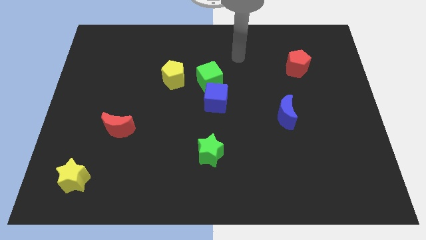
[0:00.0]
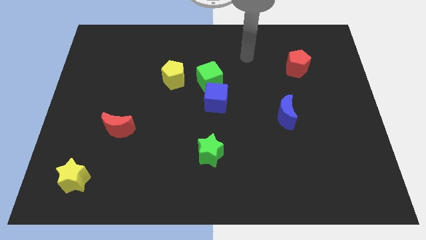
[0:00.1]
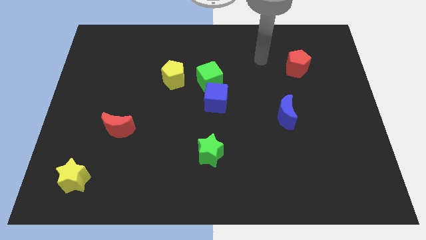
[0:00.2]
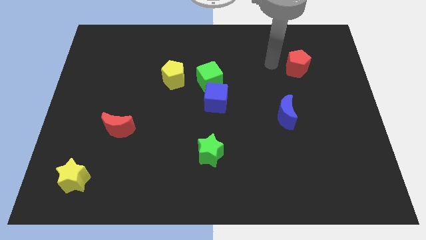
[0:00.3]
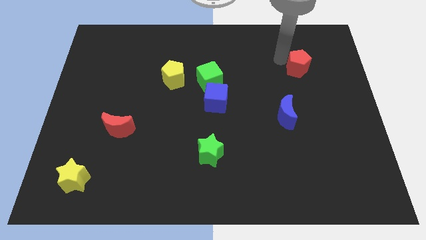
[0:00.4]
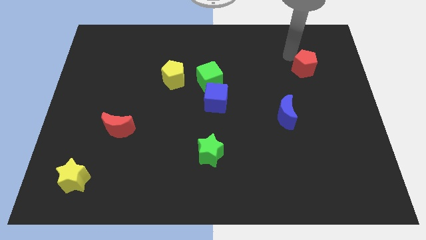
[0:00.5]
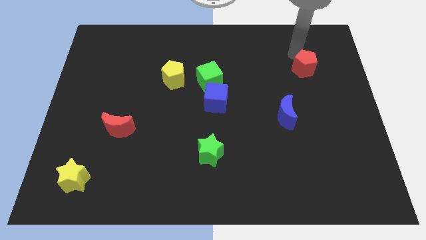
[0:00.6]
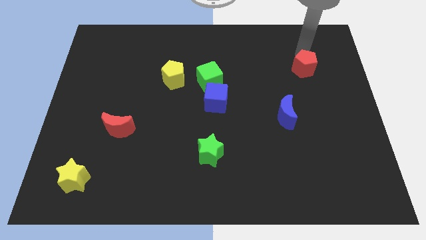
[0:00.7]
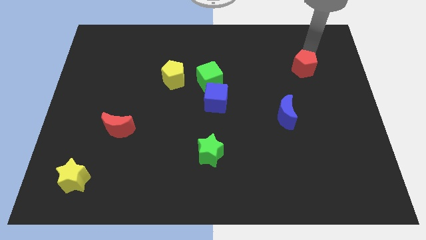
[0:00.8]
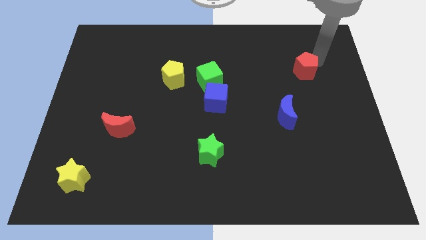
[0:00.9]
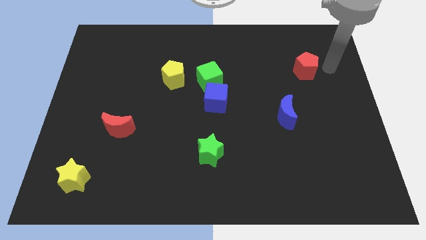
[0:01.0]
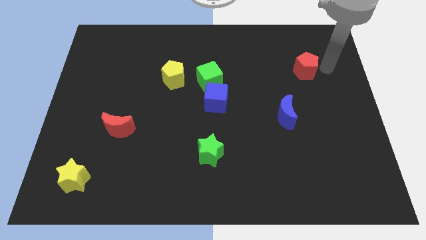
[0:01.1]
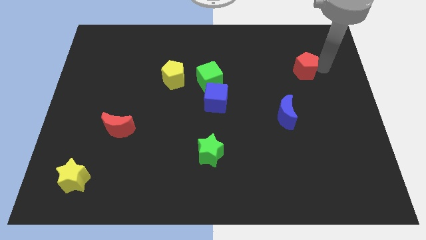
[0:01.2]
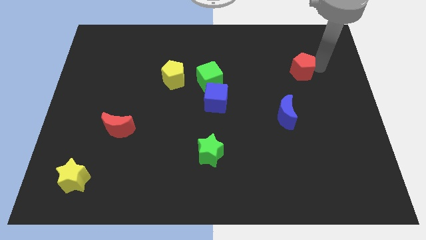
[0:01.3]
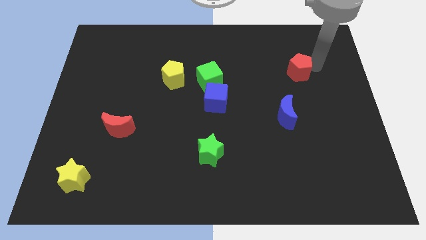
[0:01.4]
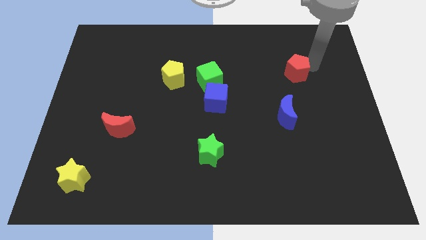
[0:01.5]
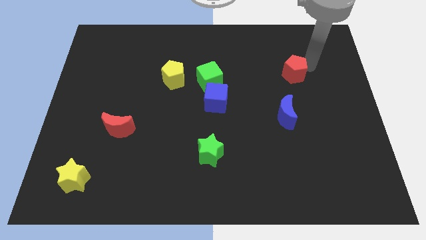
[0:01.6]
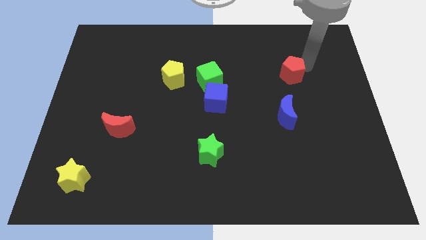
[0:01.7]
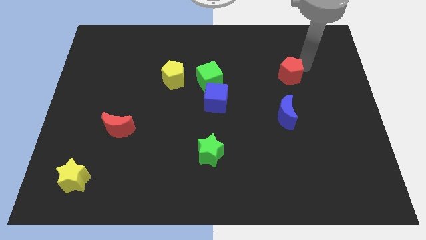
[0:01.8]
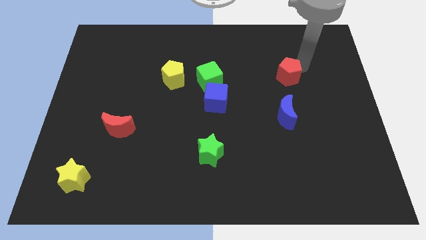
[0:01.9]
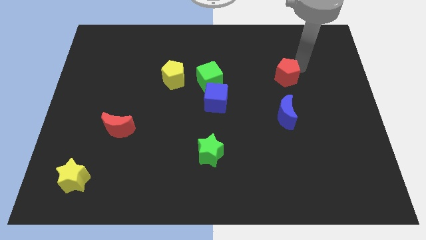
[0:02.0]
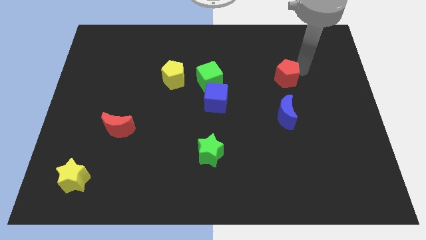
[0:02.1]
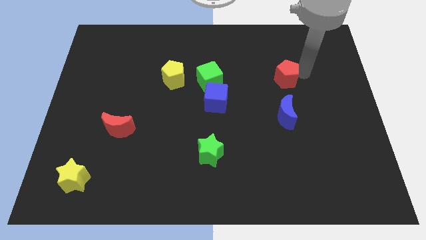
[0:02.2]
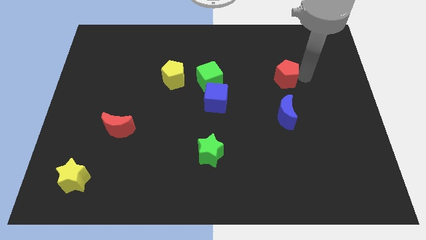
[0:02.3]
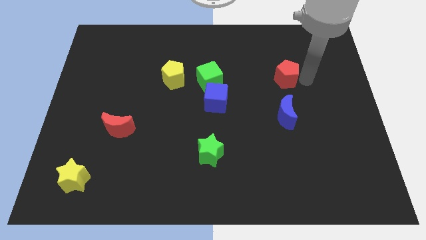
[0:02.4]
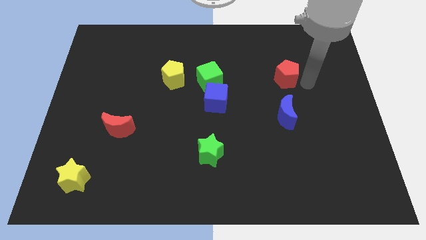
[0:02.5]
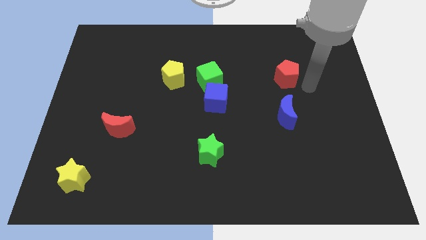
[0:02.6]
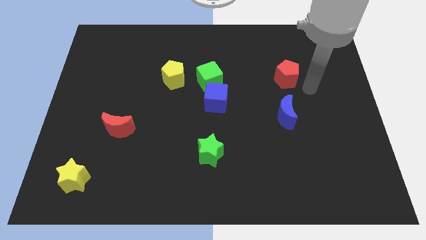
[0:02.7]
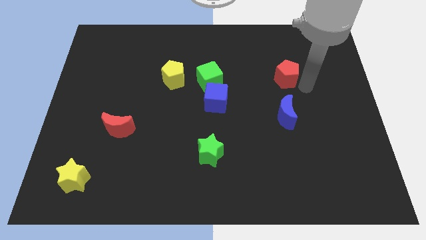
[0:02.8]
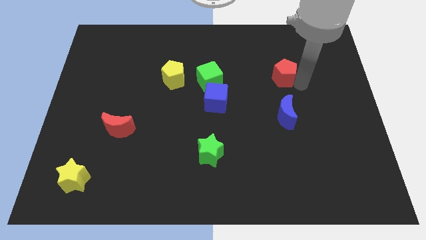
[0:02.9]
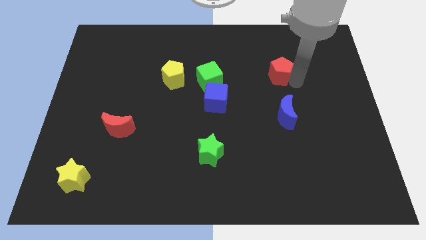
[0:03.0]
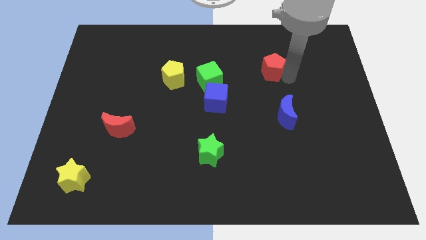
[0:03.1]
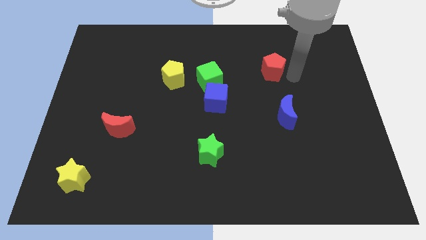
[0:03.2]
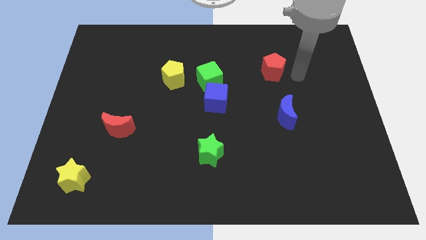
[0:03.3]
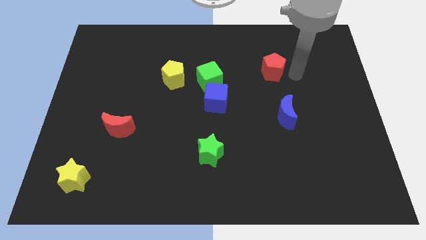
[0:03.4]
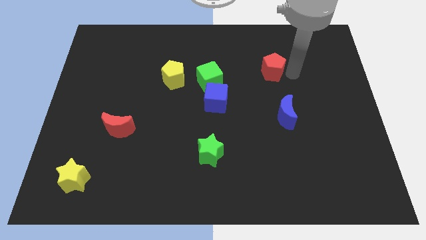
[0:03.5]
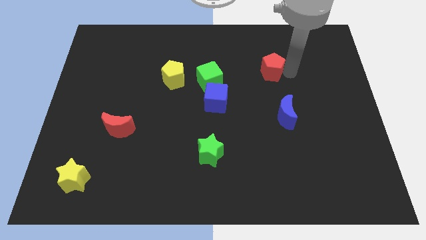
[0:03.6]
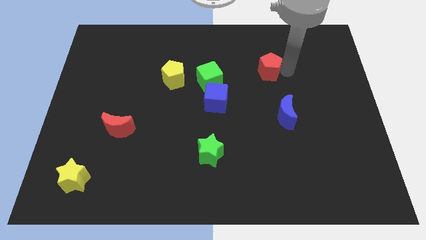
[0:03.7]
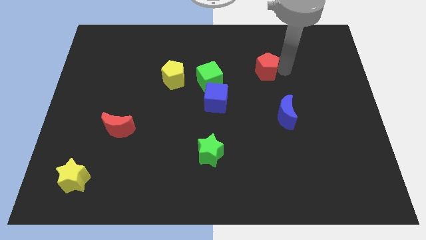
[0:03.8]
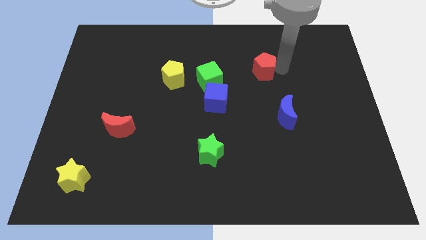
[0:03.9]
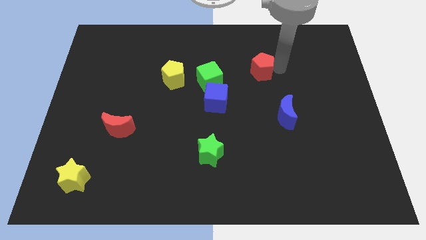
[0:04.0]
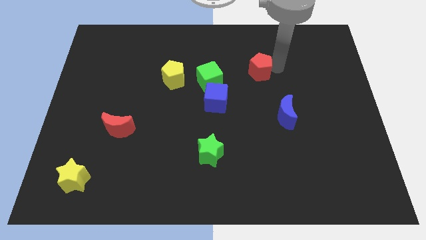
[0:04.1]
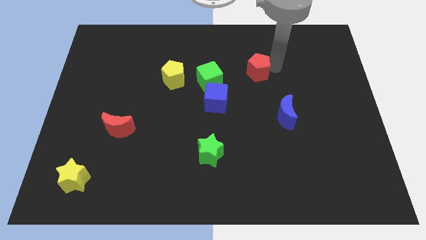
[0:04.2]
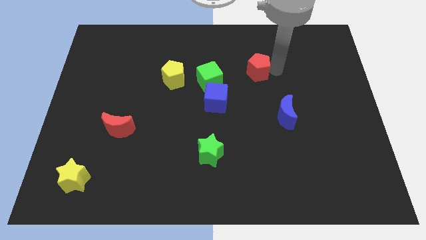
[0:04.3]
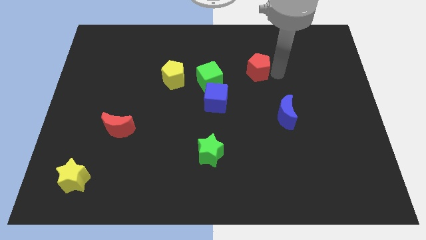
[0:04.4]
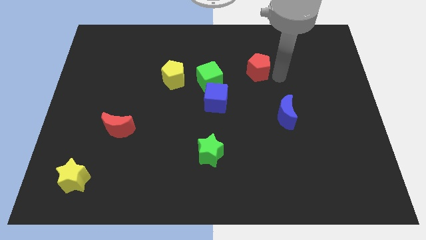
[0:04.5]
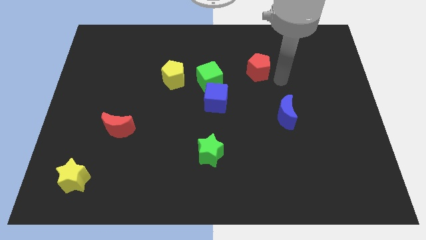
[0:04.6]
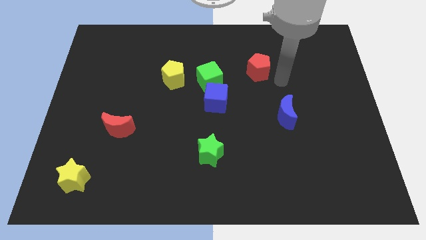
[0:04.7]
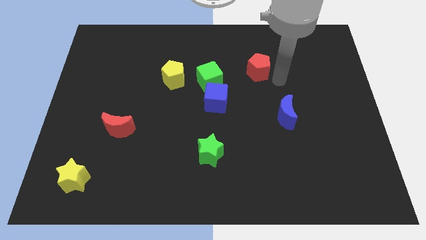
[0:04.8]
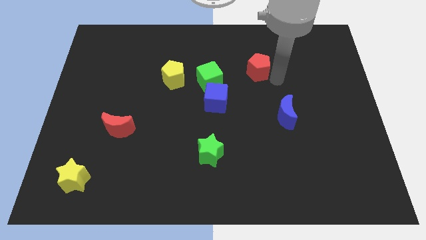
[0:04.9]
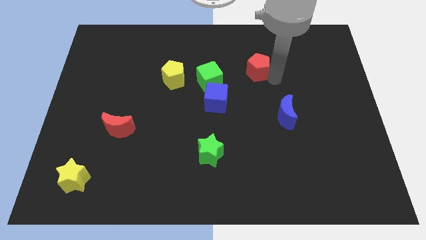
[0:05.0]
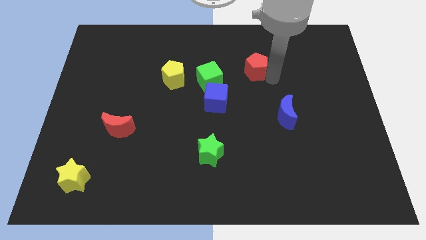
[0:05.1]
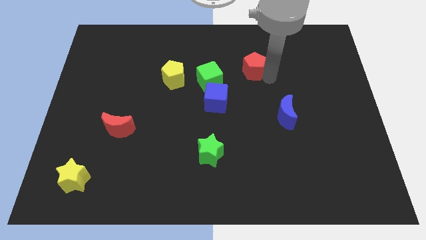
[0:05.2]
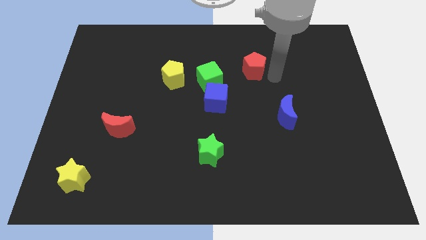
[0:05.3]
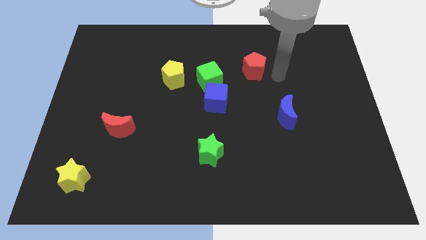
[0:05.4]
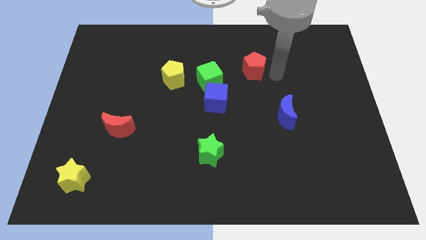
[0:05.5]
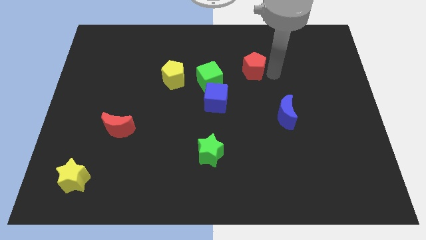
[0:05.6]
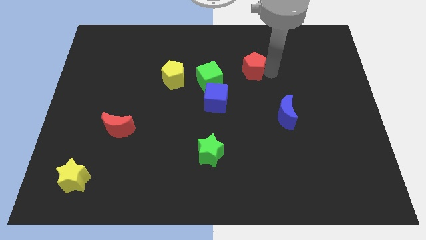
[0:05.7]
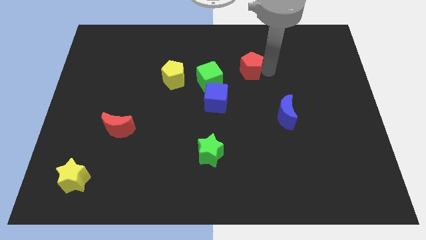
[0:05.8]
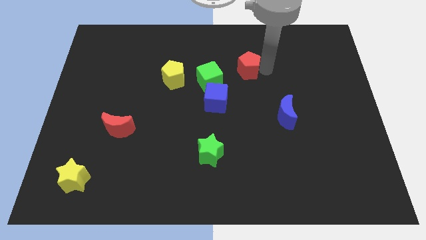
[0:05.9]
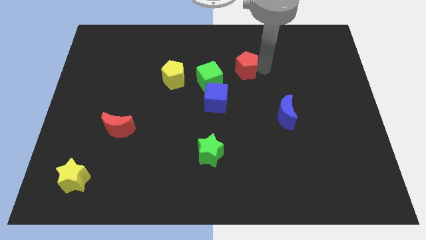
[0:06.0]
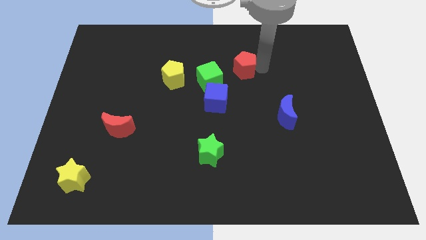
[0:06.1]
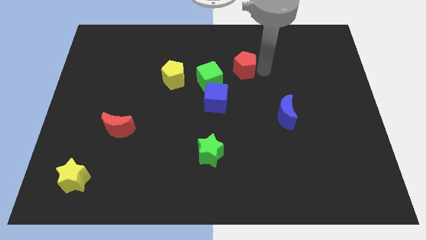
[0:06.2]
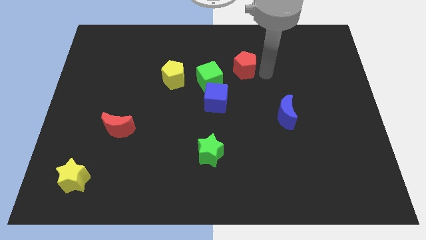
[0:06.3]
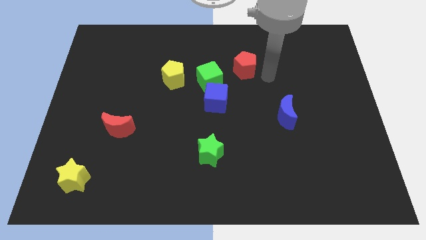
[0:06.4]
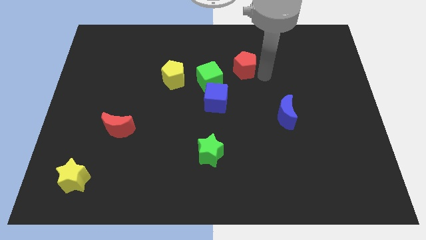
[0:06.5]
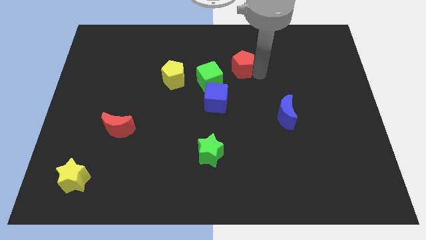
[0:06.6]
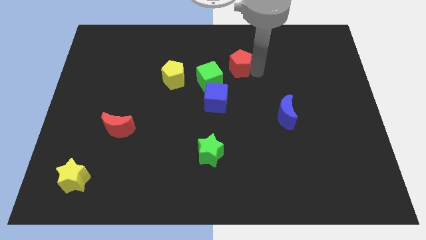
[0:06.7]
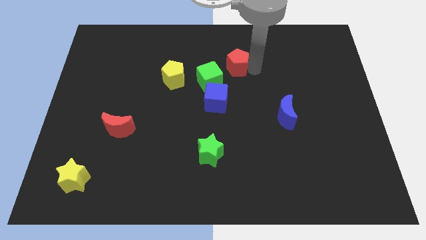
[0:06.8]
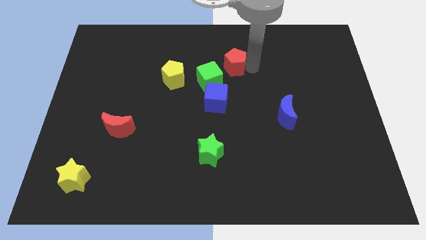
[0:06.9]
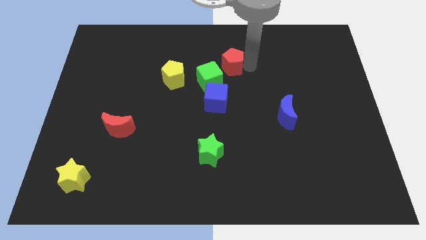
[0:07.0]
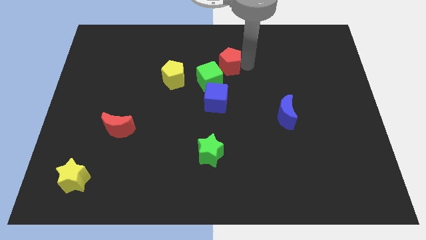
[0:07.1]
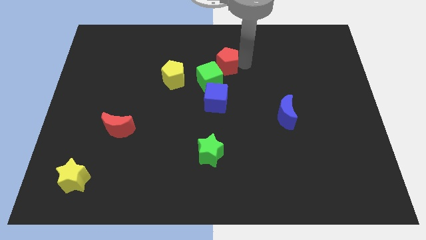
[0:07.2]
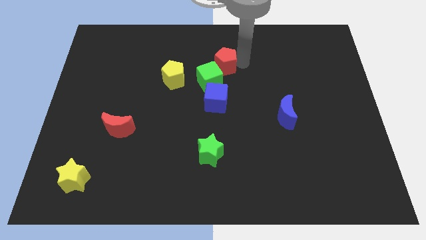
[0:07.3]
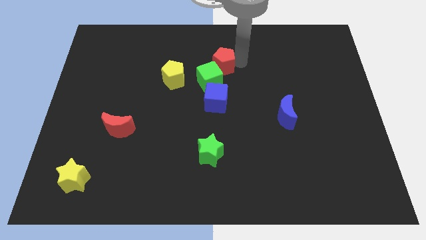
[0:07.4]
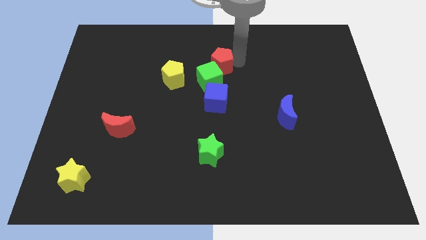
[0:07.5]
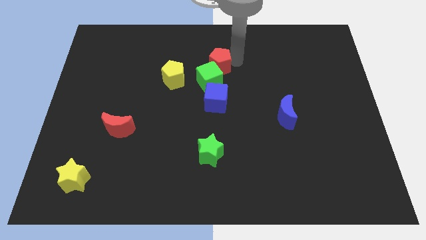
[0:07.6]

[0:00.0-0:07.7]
slide the red pentagon to the left

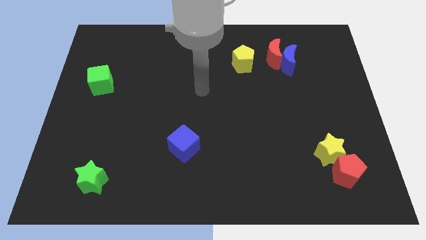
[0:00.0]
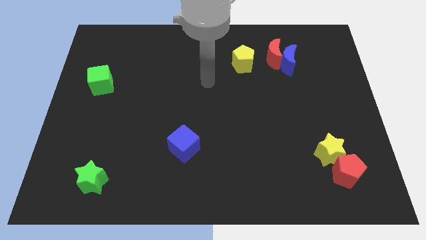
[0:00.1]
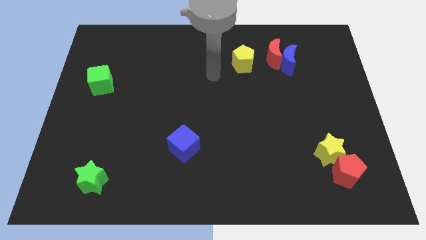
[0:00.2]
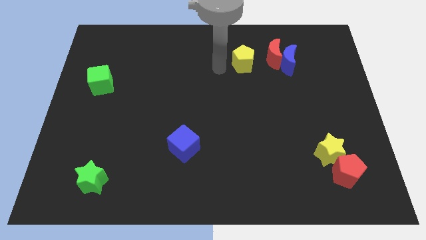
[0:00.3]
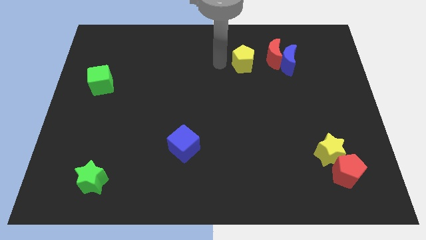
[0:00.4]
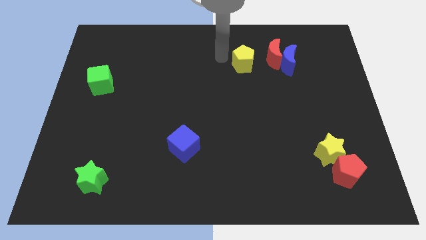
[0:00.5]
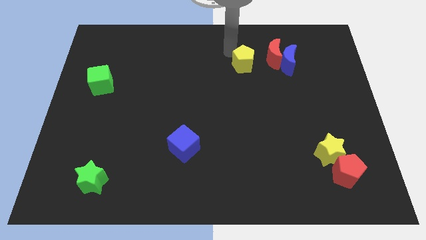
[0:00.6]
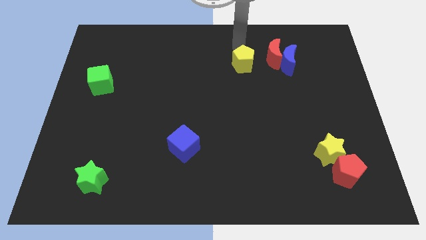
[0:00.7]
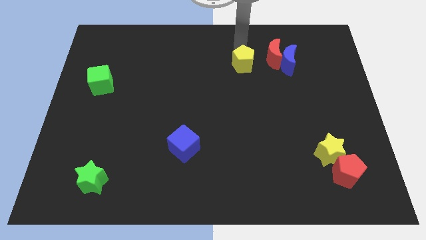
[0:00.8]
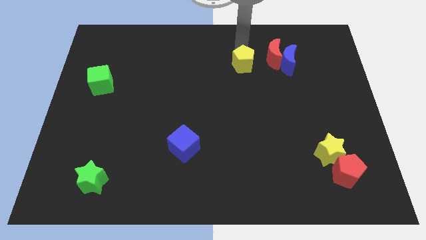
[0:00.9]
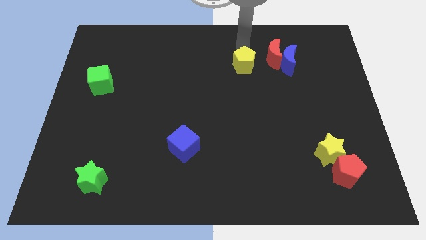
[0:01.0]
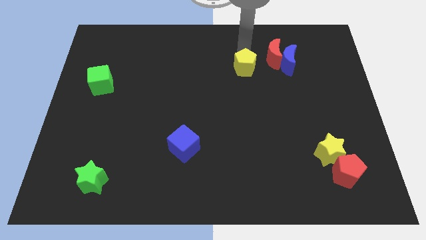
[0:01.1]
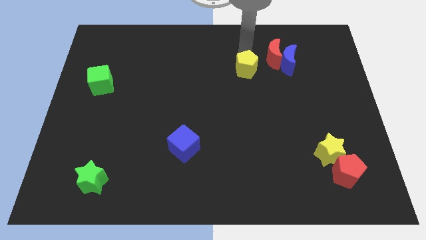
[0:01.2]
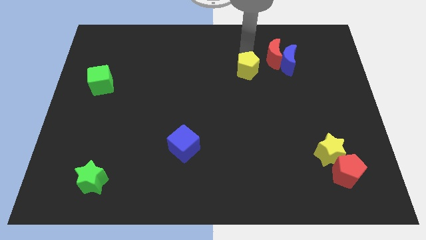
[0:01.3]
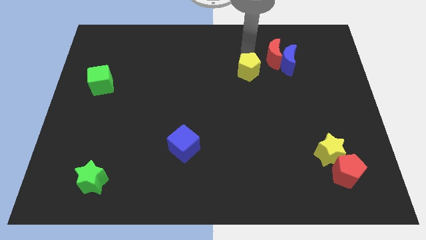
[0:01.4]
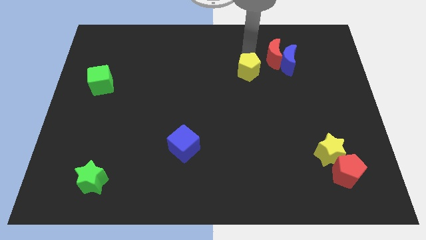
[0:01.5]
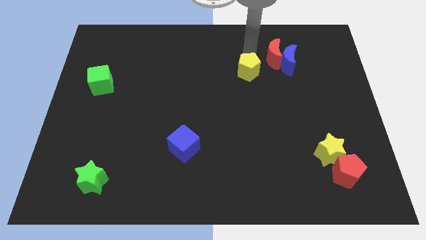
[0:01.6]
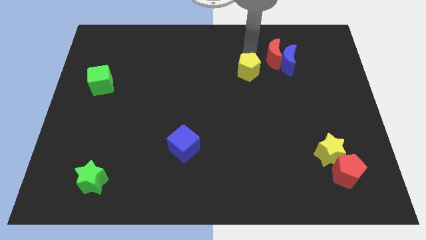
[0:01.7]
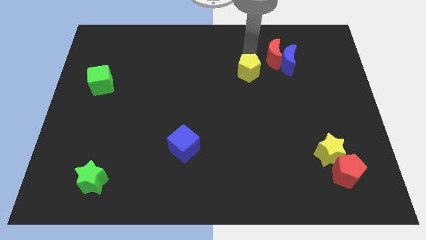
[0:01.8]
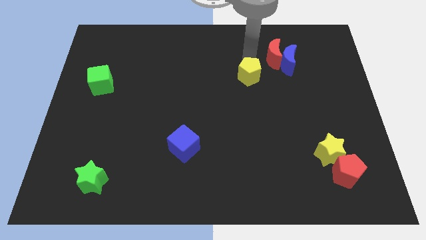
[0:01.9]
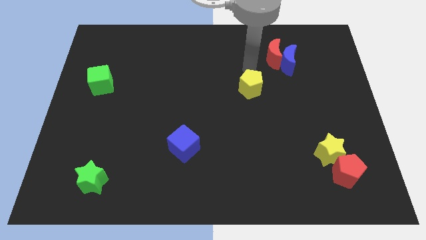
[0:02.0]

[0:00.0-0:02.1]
push the yellow pentagon a bit down
